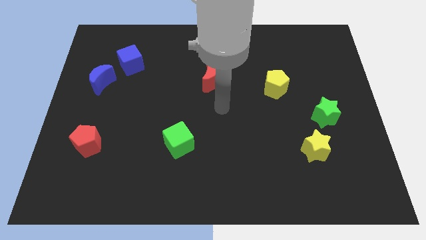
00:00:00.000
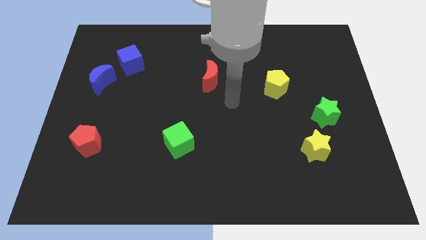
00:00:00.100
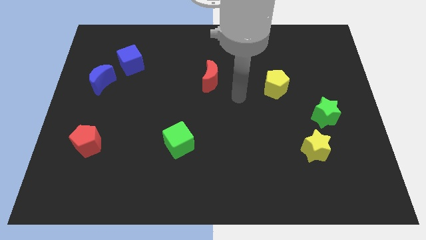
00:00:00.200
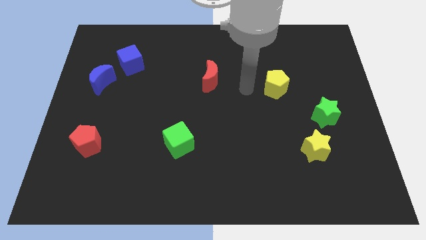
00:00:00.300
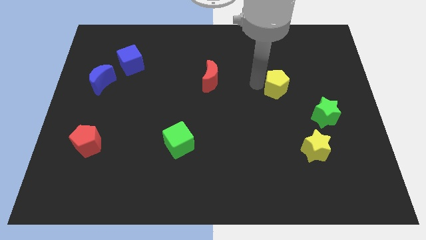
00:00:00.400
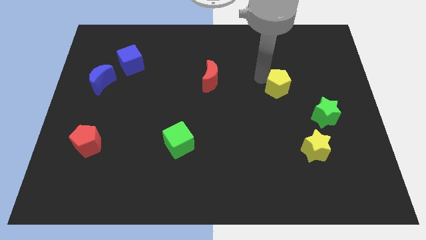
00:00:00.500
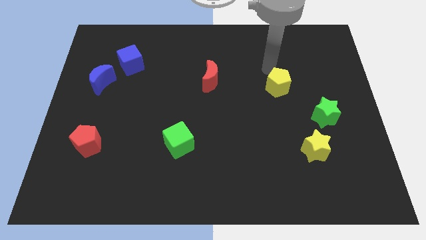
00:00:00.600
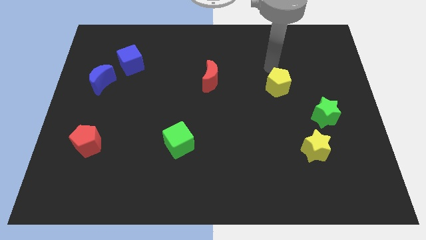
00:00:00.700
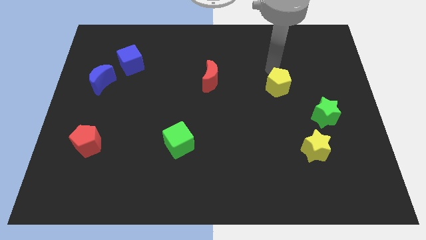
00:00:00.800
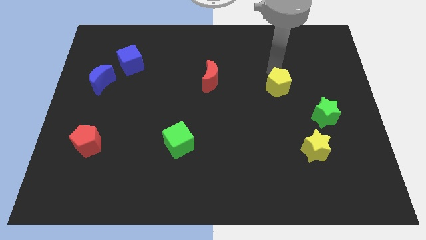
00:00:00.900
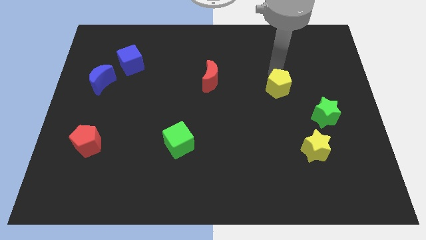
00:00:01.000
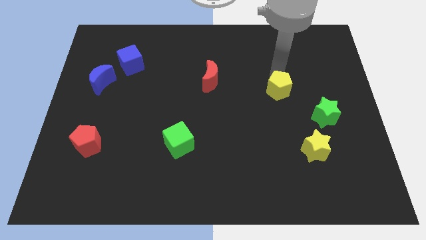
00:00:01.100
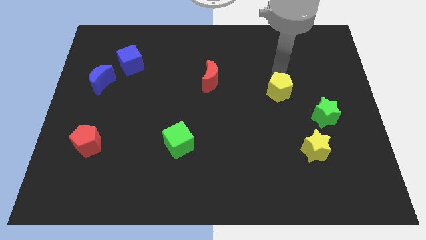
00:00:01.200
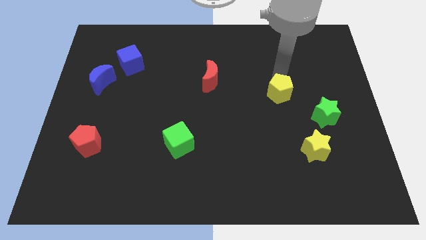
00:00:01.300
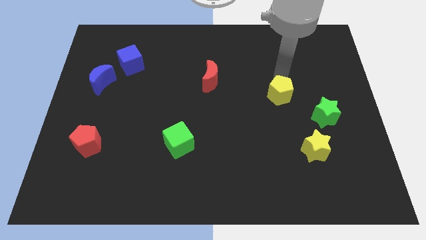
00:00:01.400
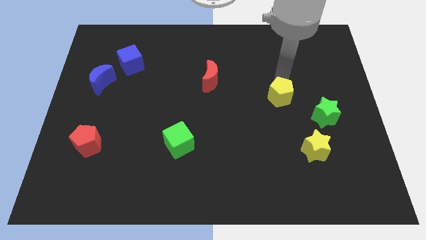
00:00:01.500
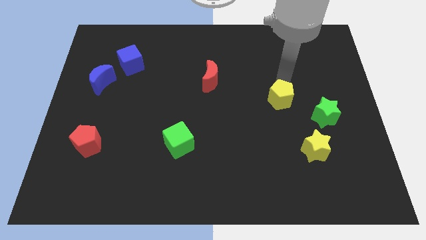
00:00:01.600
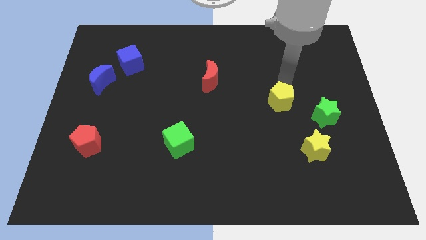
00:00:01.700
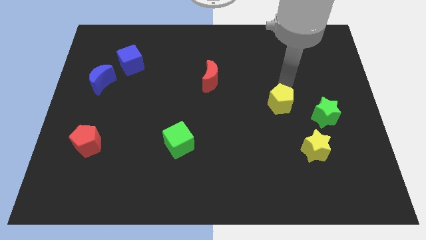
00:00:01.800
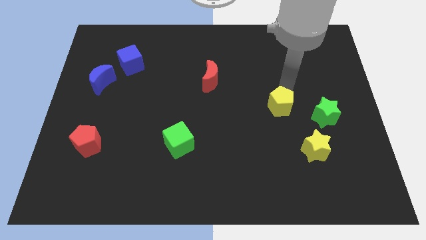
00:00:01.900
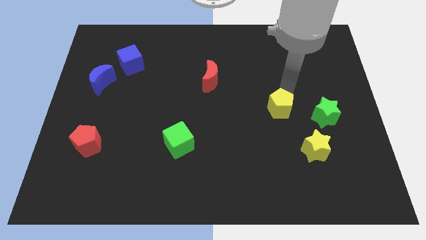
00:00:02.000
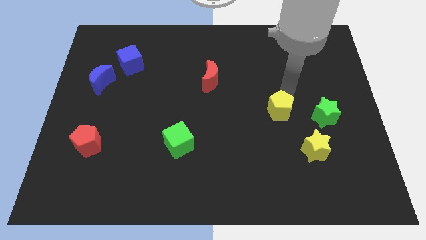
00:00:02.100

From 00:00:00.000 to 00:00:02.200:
push the yellow pentagon downwards a little bit

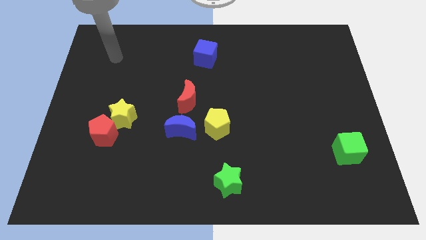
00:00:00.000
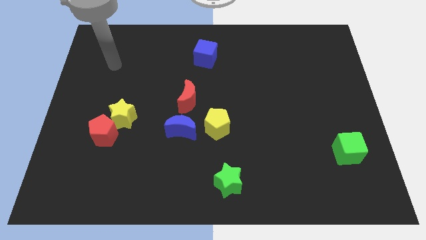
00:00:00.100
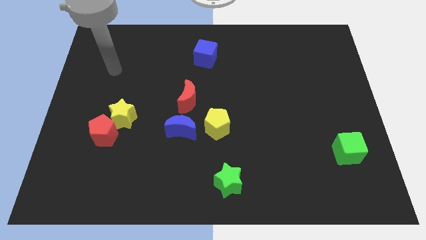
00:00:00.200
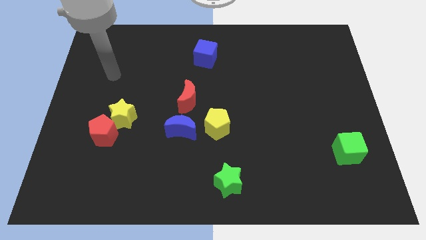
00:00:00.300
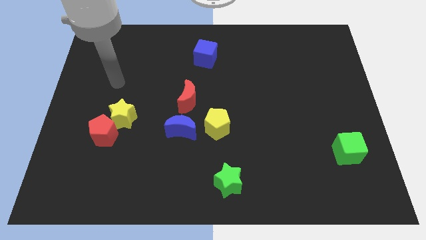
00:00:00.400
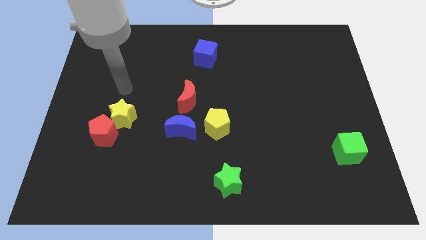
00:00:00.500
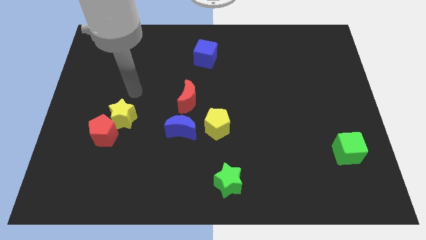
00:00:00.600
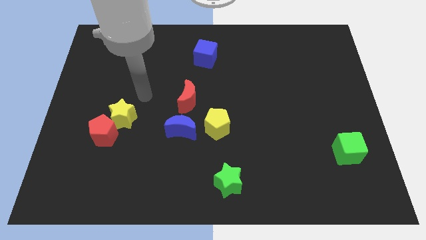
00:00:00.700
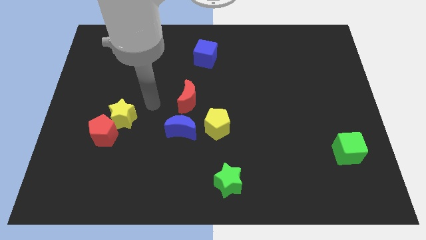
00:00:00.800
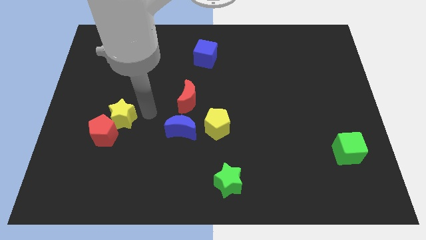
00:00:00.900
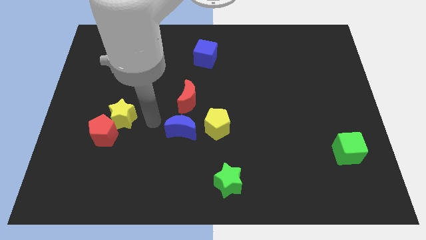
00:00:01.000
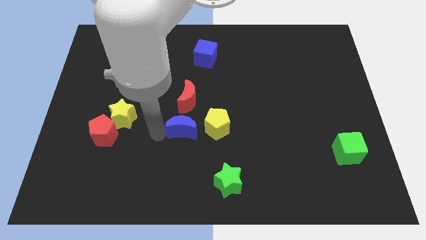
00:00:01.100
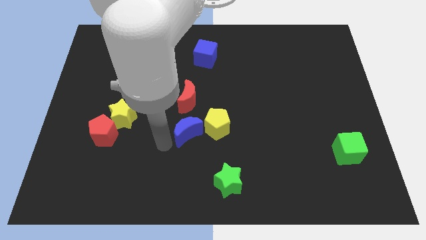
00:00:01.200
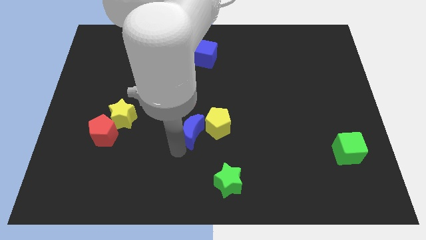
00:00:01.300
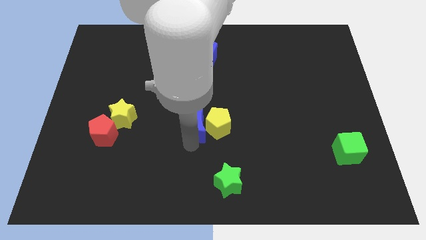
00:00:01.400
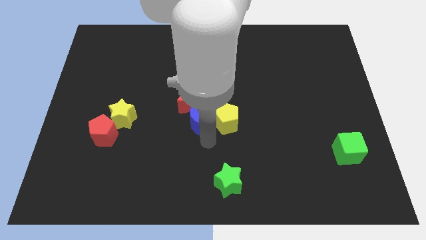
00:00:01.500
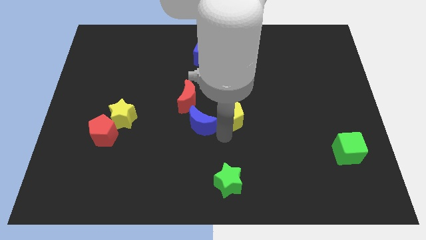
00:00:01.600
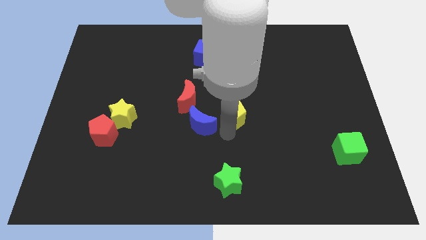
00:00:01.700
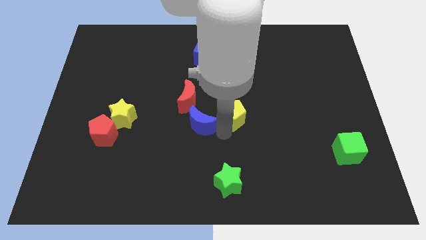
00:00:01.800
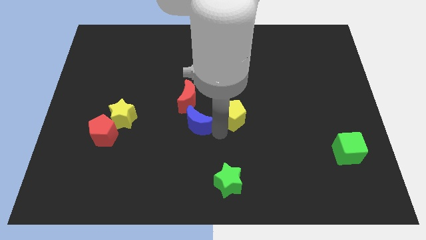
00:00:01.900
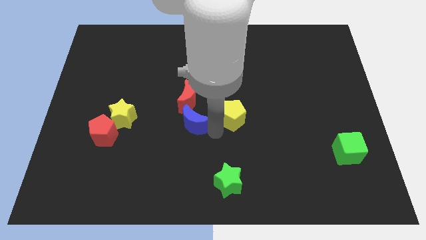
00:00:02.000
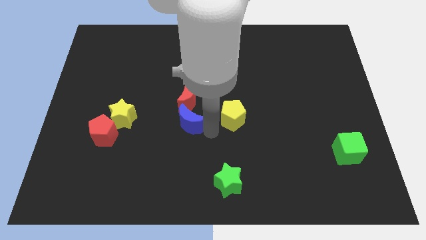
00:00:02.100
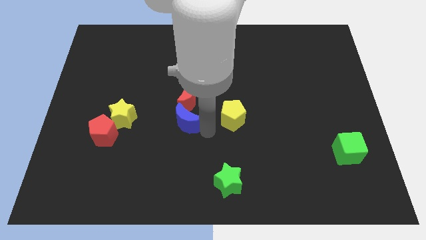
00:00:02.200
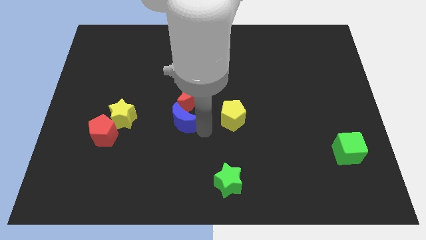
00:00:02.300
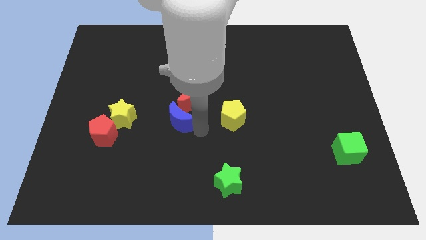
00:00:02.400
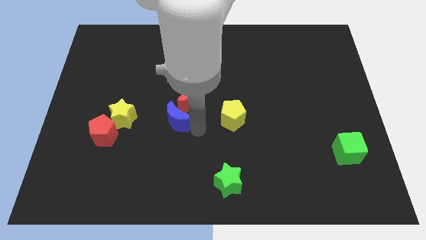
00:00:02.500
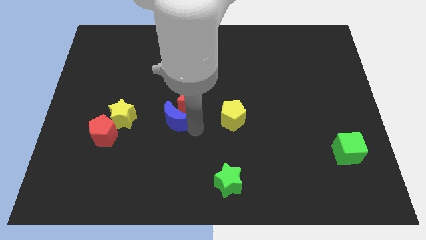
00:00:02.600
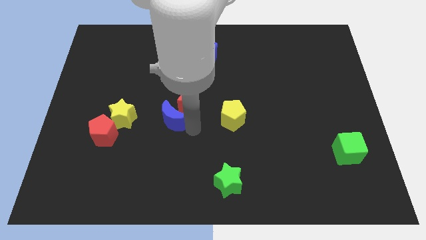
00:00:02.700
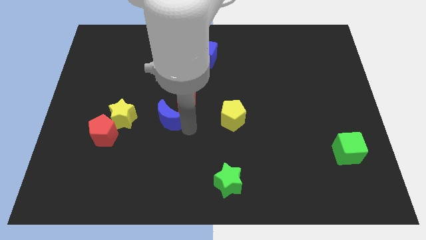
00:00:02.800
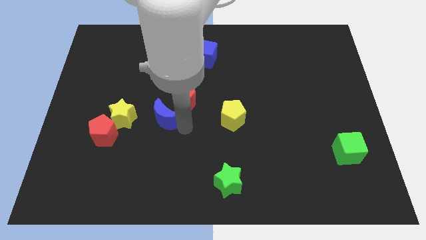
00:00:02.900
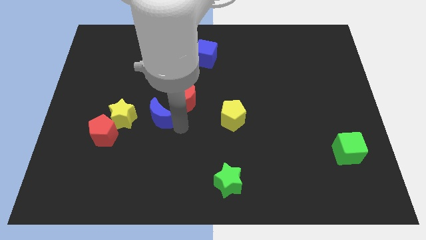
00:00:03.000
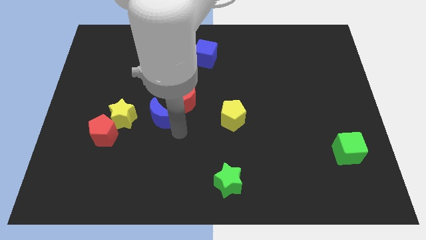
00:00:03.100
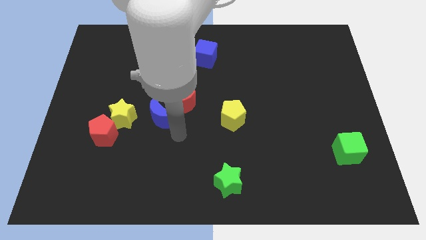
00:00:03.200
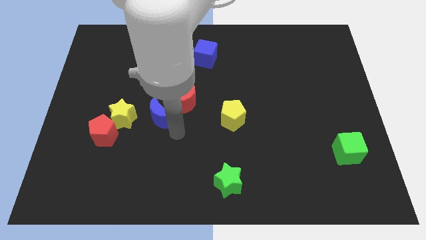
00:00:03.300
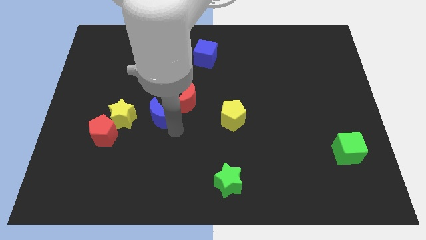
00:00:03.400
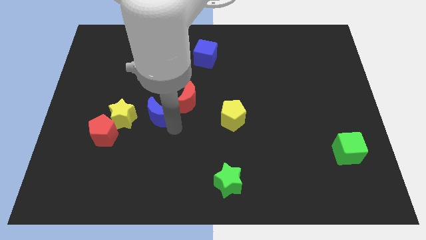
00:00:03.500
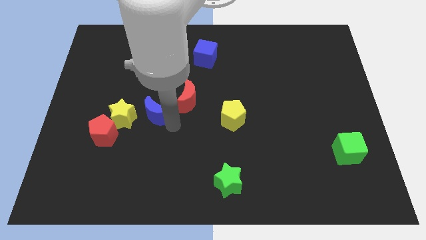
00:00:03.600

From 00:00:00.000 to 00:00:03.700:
push the blue moon diagonally up and to the left a little bit

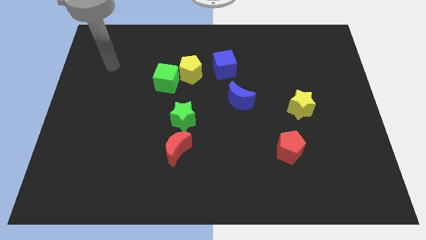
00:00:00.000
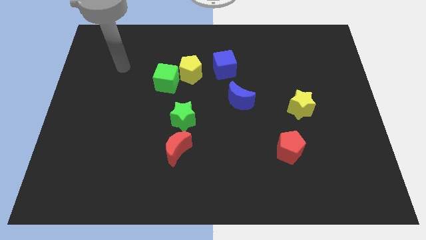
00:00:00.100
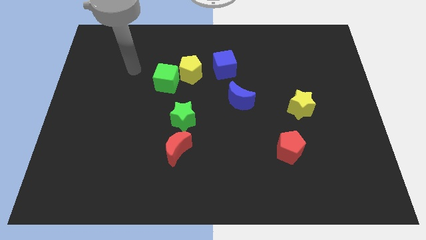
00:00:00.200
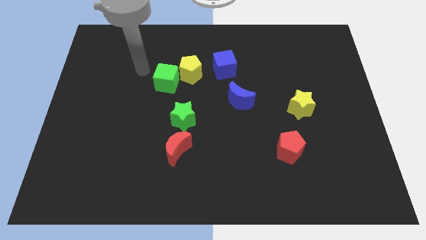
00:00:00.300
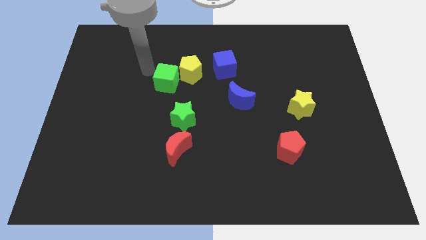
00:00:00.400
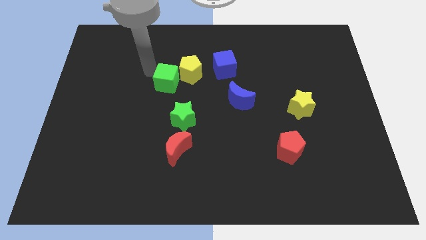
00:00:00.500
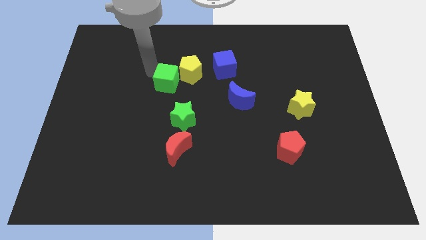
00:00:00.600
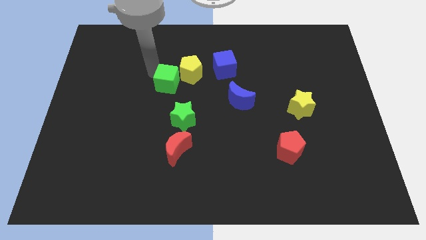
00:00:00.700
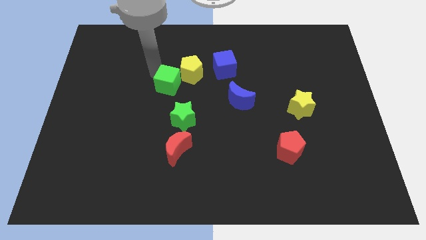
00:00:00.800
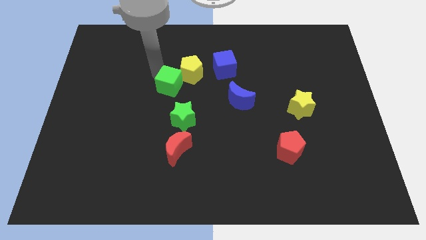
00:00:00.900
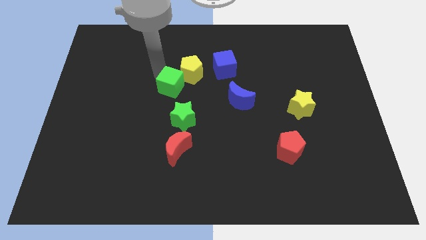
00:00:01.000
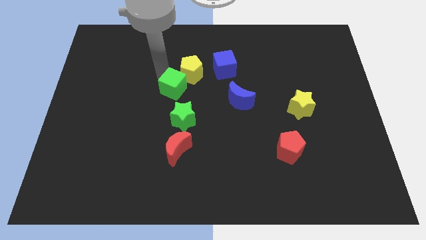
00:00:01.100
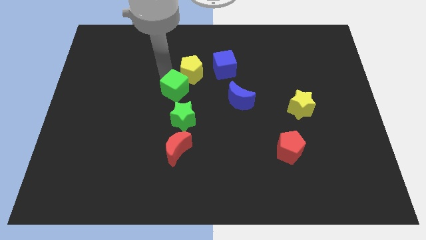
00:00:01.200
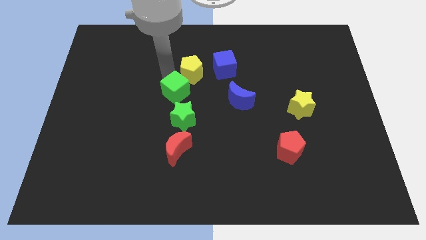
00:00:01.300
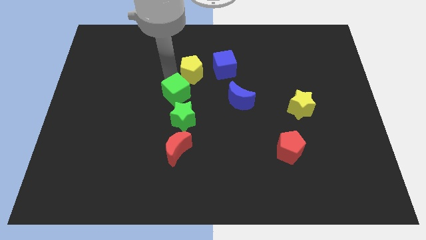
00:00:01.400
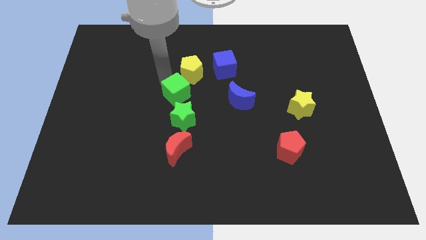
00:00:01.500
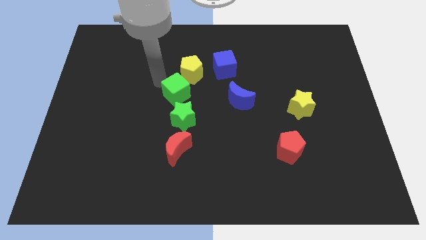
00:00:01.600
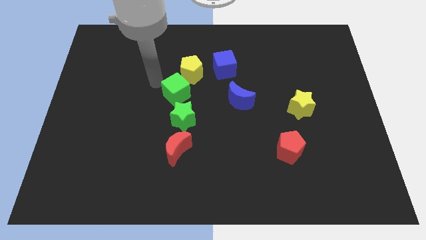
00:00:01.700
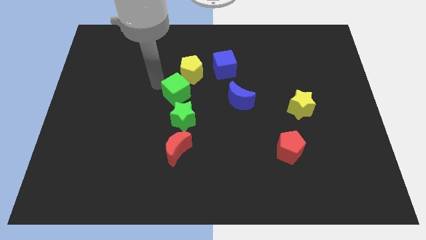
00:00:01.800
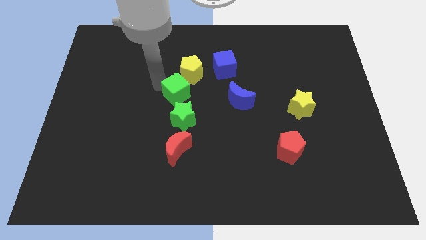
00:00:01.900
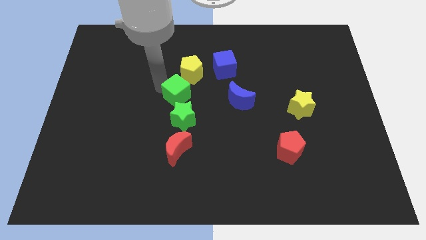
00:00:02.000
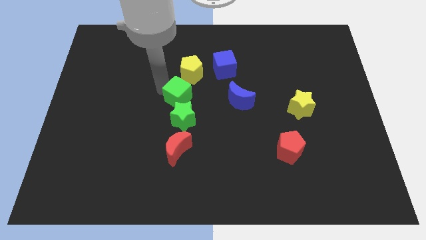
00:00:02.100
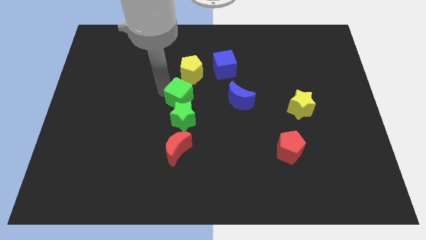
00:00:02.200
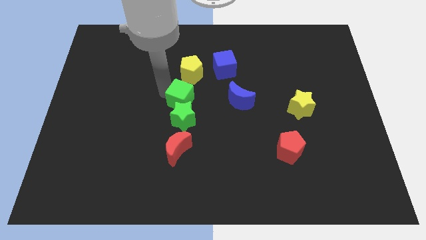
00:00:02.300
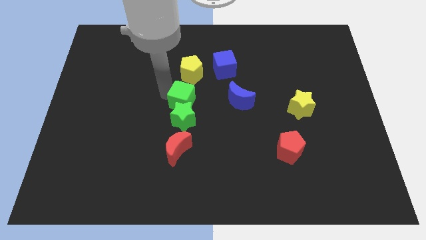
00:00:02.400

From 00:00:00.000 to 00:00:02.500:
move the green cube diagonally downwards and right a bit

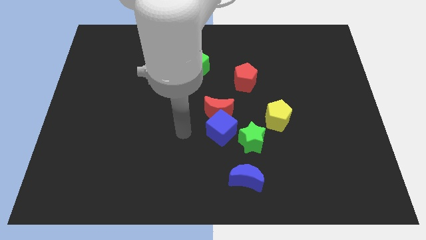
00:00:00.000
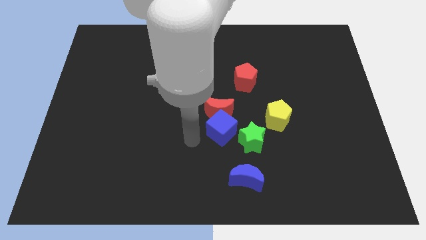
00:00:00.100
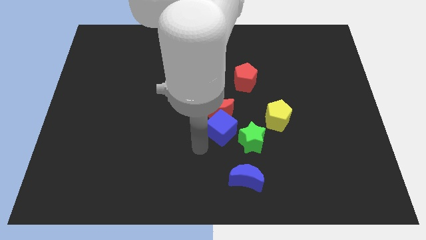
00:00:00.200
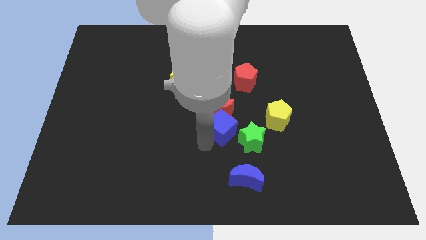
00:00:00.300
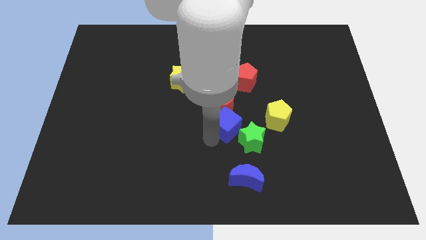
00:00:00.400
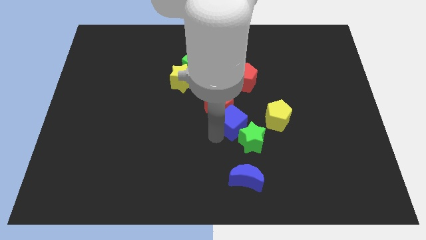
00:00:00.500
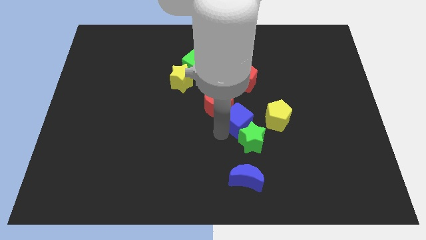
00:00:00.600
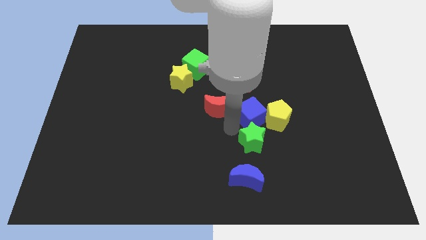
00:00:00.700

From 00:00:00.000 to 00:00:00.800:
slightly move the blue cube up and to the right
